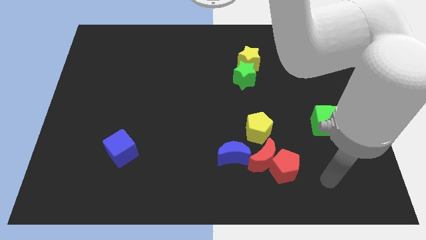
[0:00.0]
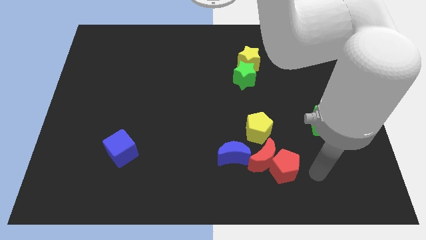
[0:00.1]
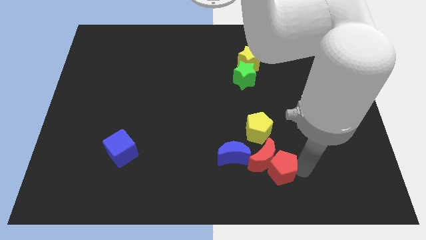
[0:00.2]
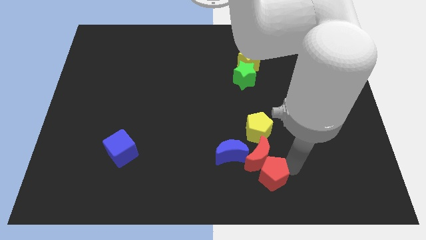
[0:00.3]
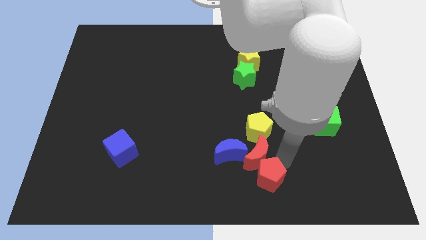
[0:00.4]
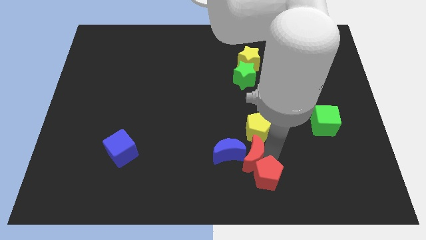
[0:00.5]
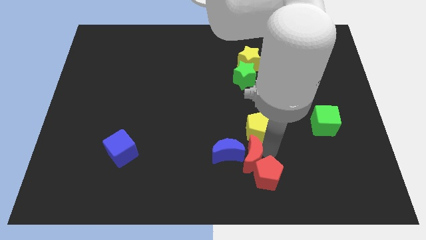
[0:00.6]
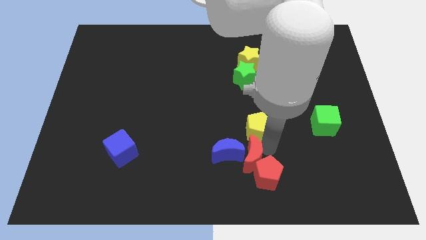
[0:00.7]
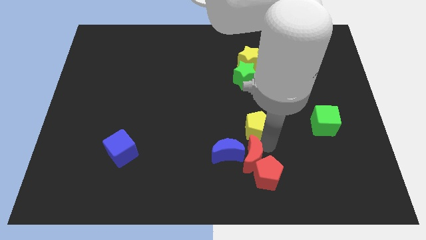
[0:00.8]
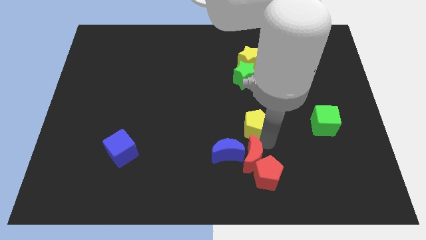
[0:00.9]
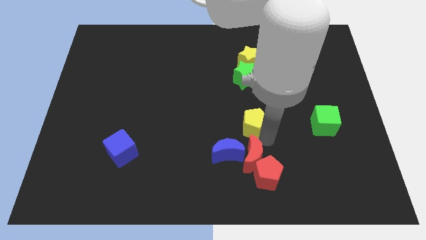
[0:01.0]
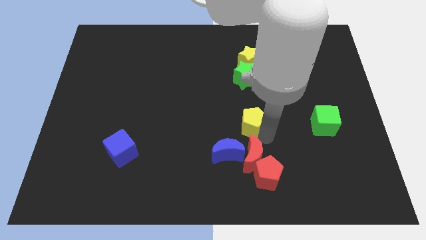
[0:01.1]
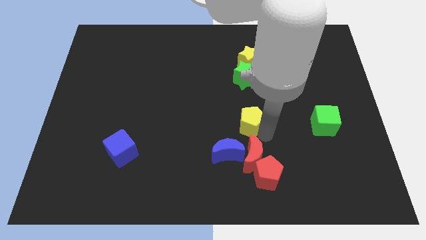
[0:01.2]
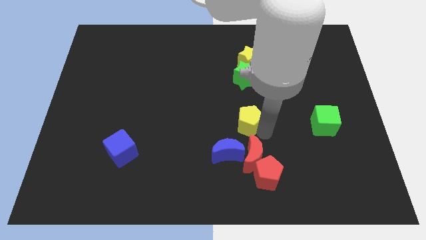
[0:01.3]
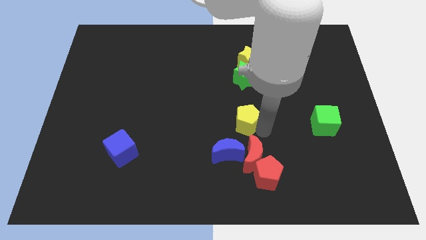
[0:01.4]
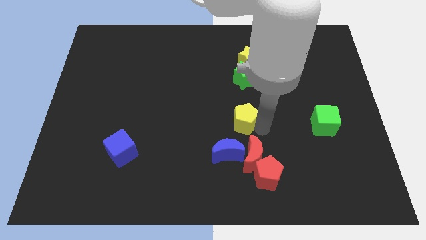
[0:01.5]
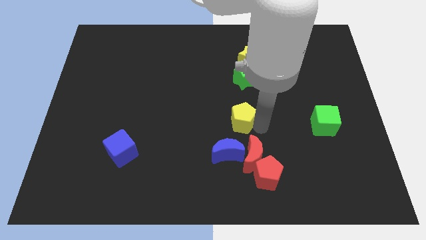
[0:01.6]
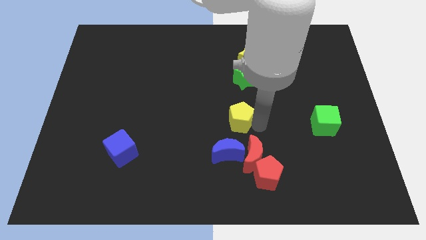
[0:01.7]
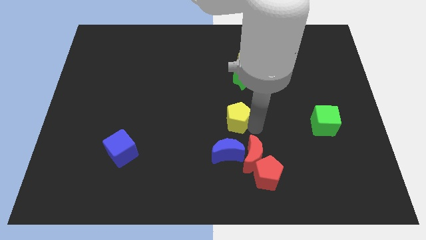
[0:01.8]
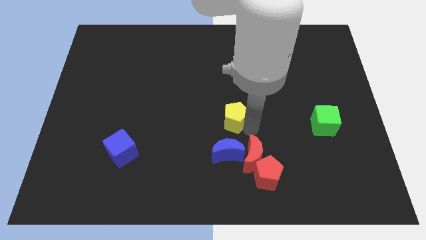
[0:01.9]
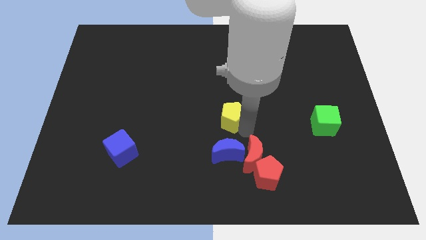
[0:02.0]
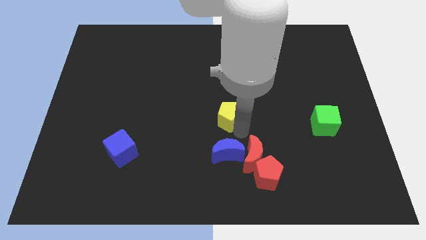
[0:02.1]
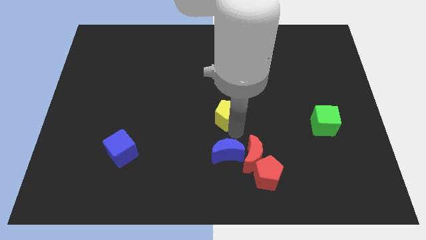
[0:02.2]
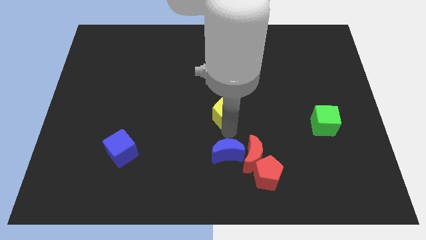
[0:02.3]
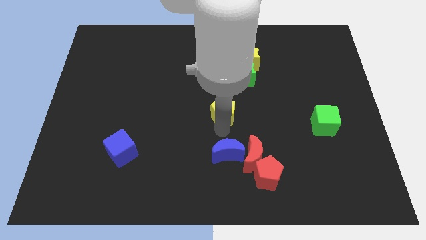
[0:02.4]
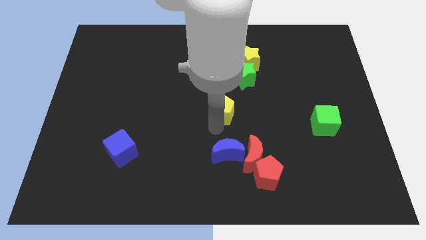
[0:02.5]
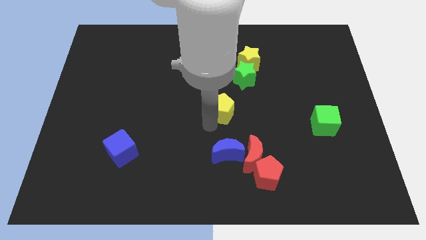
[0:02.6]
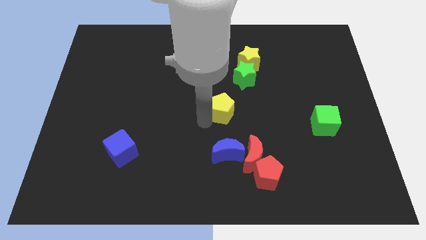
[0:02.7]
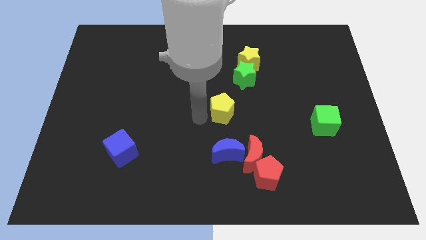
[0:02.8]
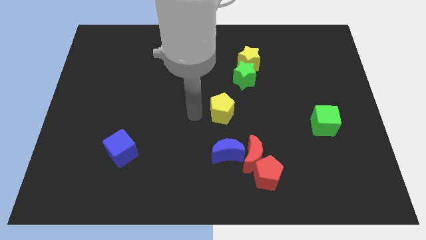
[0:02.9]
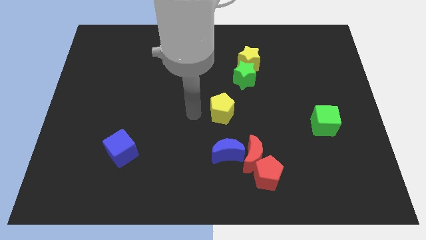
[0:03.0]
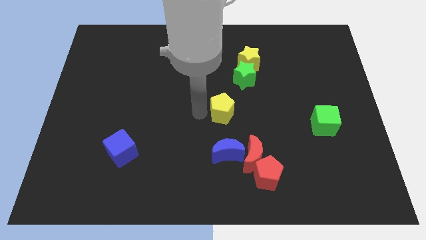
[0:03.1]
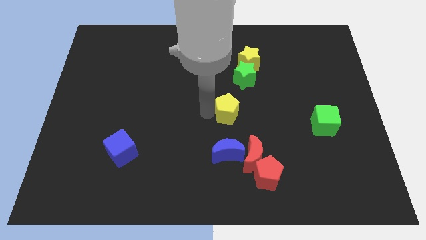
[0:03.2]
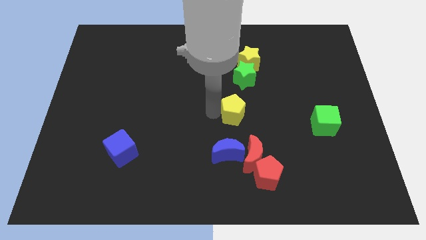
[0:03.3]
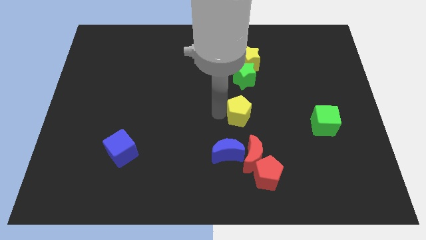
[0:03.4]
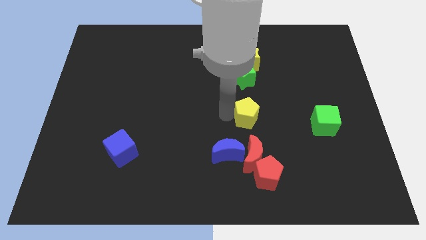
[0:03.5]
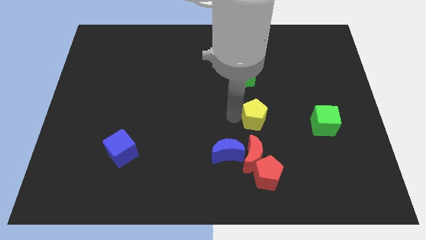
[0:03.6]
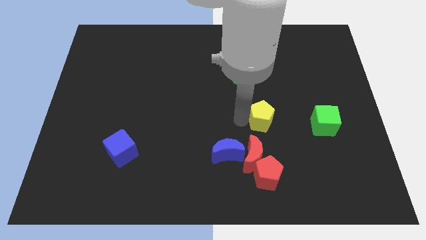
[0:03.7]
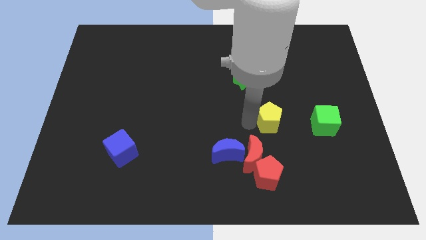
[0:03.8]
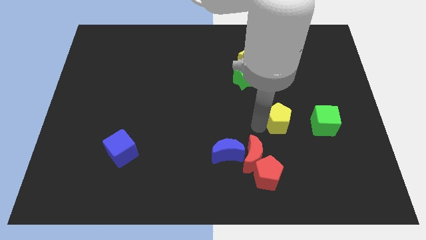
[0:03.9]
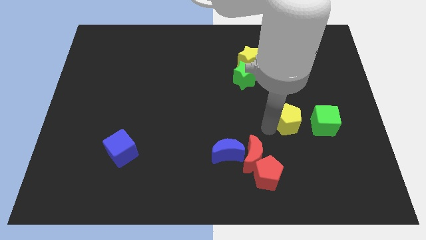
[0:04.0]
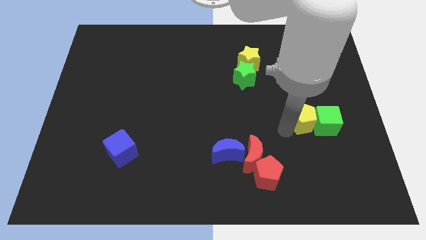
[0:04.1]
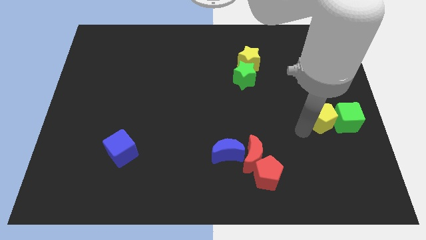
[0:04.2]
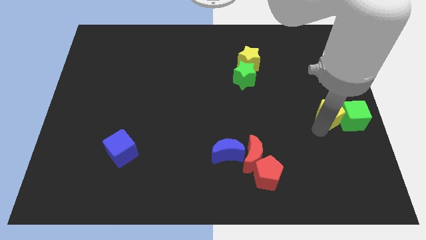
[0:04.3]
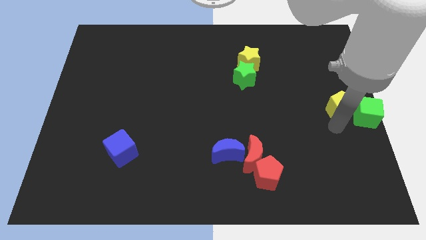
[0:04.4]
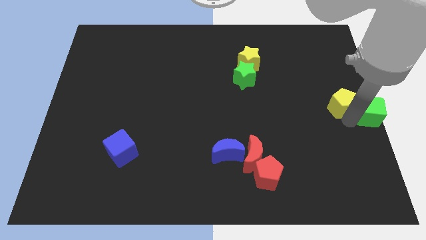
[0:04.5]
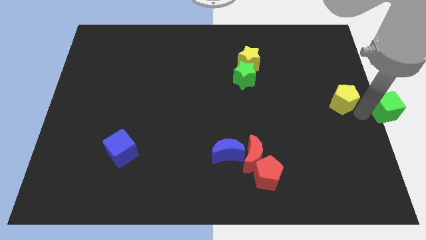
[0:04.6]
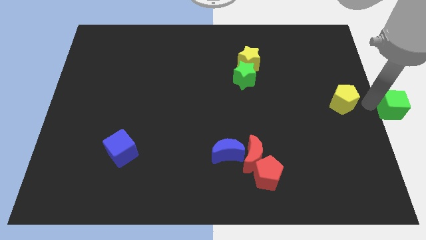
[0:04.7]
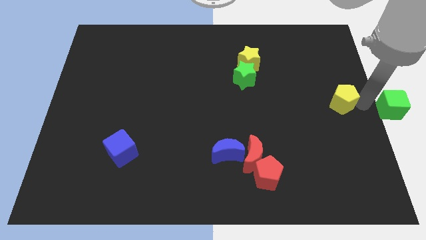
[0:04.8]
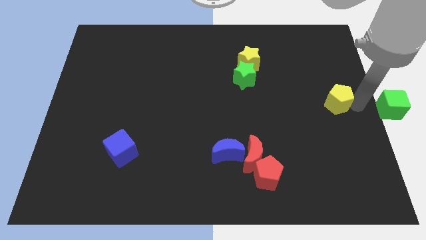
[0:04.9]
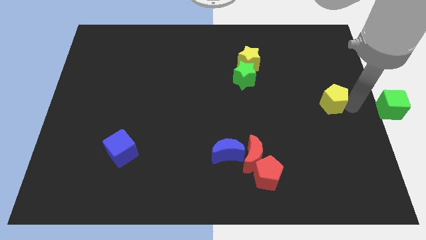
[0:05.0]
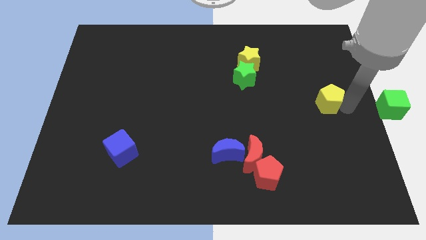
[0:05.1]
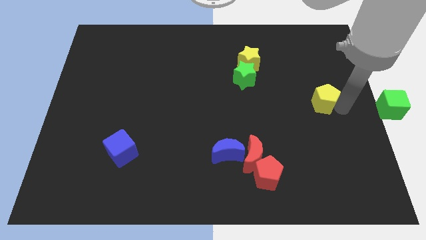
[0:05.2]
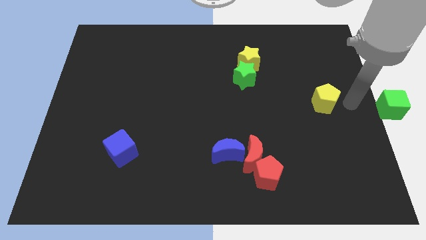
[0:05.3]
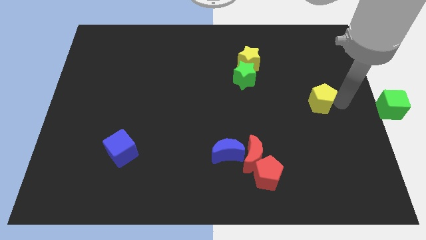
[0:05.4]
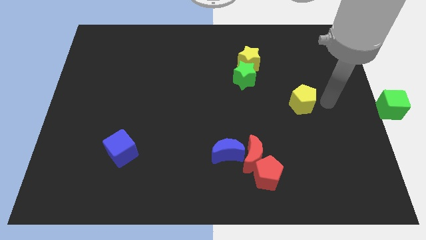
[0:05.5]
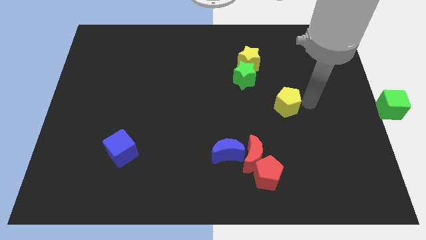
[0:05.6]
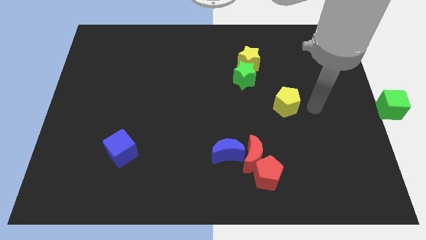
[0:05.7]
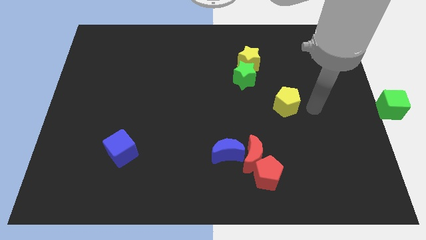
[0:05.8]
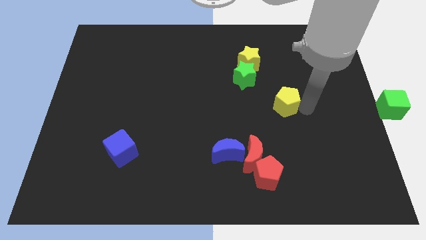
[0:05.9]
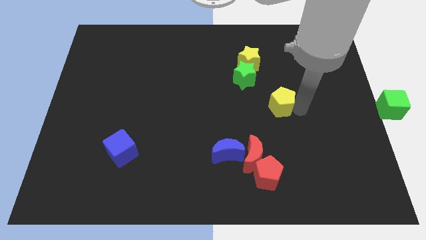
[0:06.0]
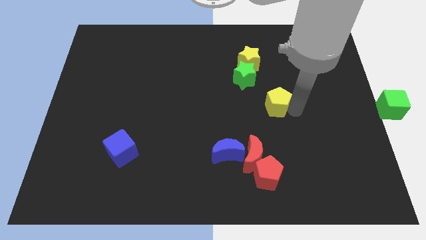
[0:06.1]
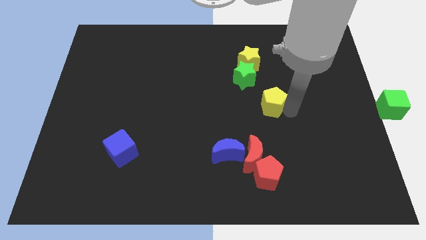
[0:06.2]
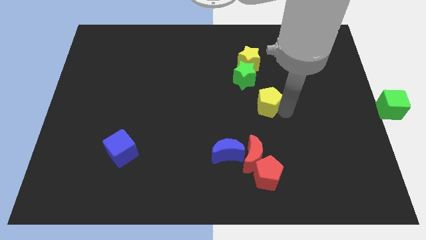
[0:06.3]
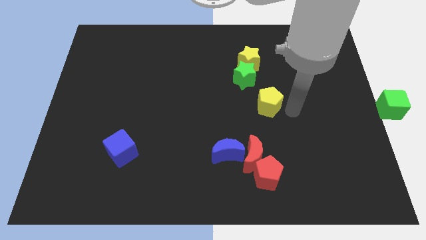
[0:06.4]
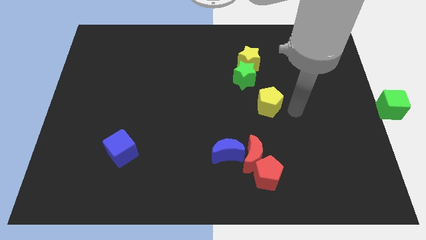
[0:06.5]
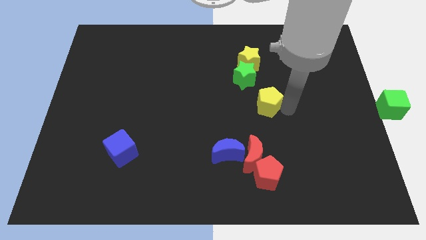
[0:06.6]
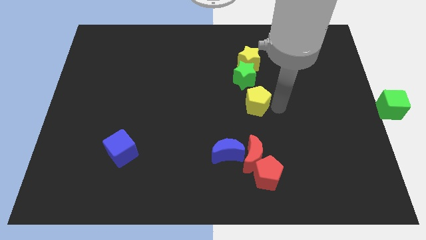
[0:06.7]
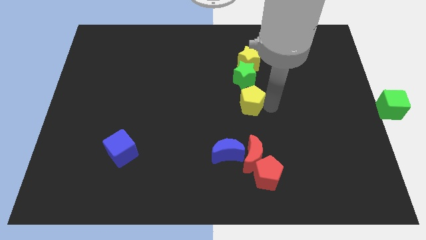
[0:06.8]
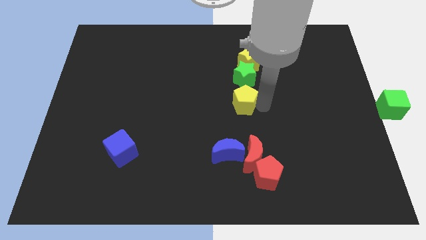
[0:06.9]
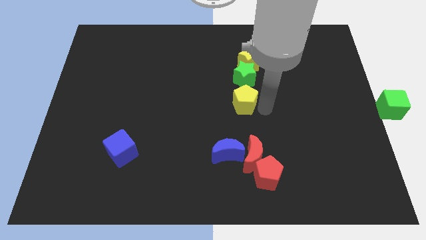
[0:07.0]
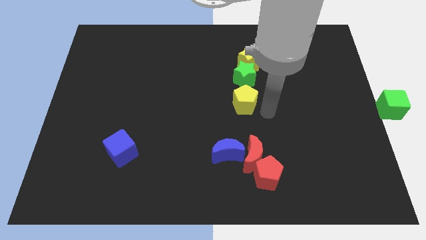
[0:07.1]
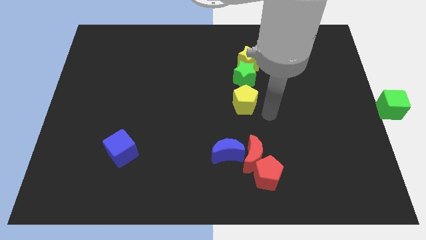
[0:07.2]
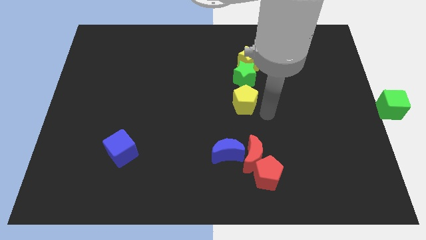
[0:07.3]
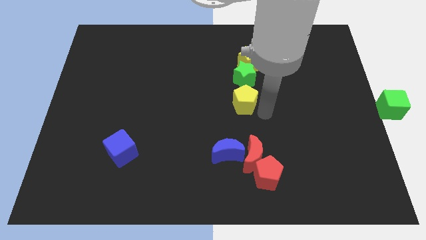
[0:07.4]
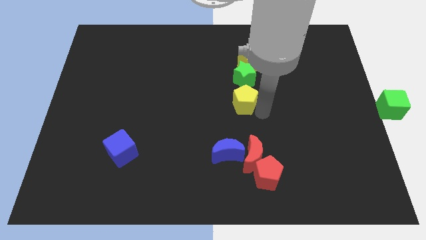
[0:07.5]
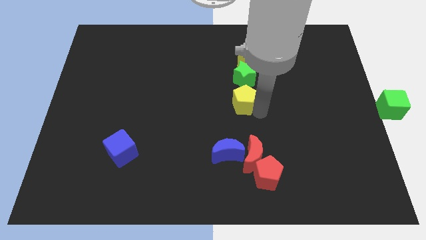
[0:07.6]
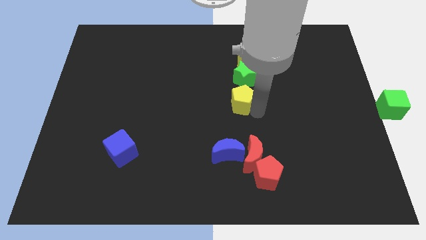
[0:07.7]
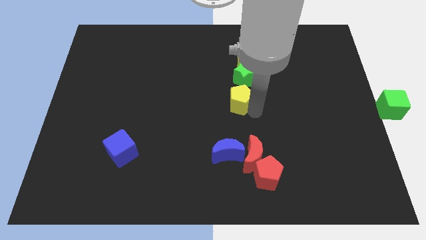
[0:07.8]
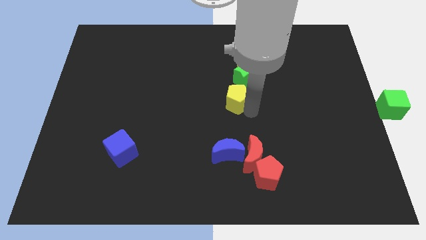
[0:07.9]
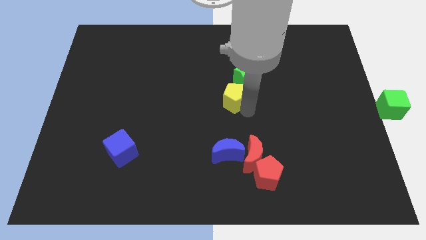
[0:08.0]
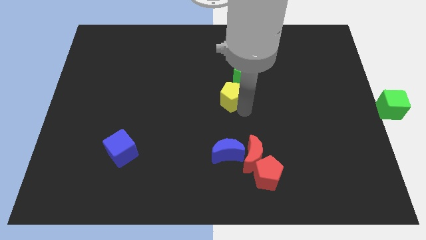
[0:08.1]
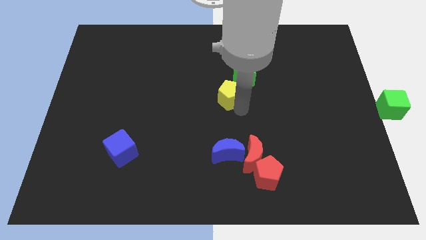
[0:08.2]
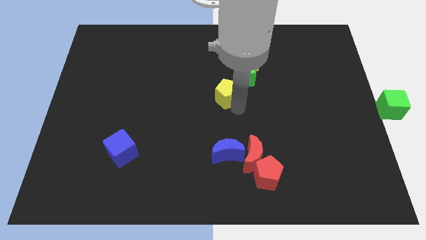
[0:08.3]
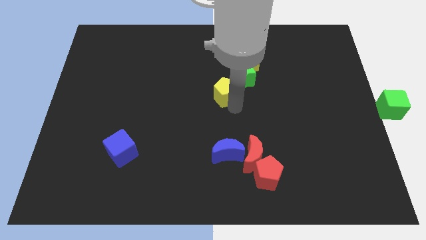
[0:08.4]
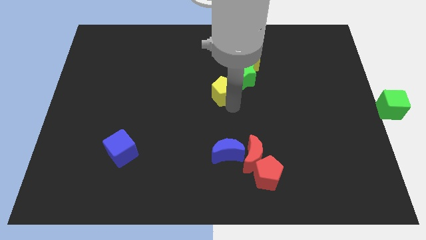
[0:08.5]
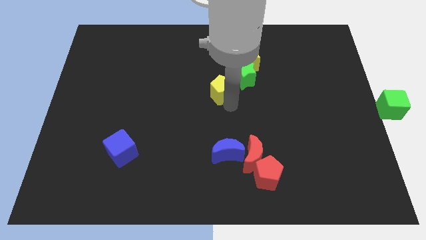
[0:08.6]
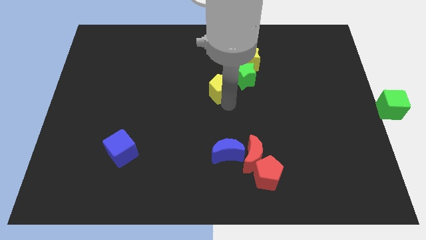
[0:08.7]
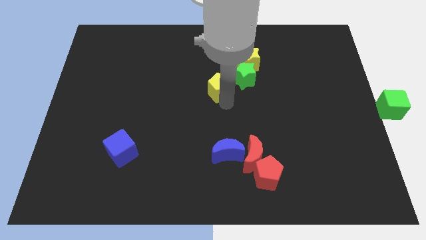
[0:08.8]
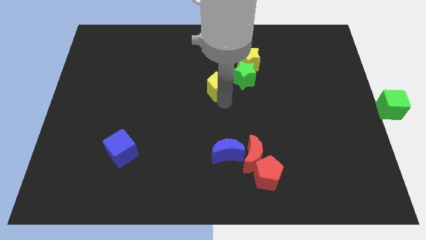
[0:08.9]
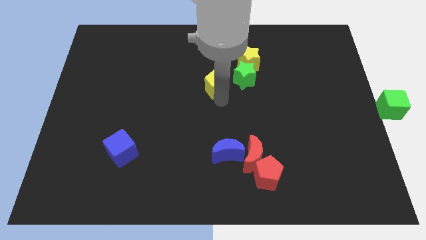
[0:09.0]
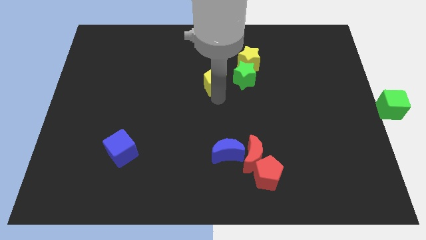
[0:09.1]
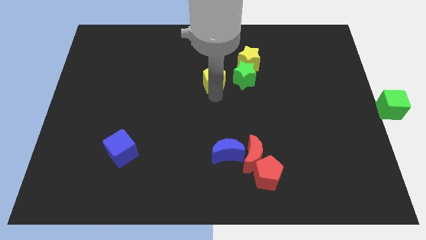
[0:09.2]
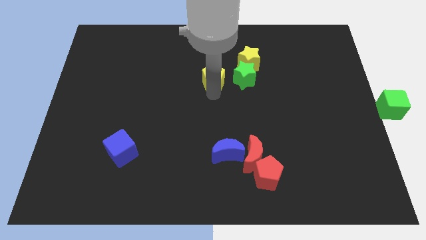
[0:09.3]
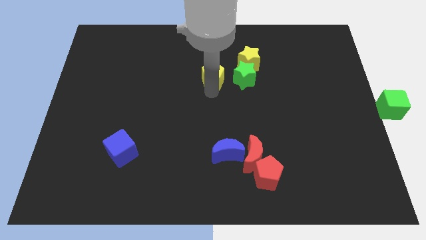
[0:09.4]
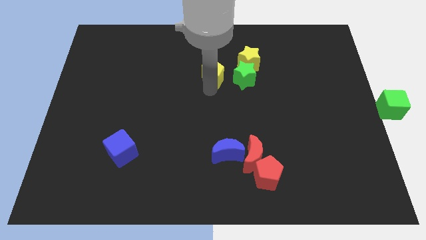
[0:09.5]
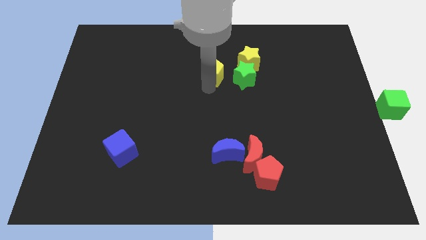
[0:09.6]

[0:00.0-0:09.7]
push the yellow pentagon diagonally up and to the left of the green star
